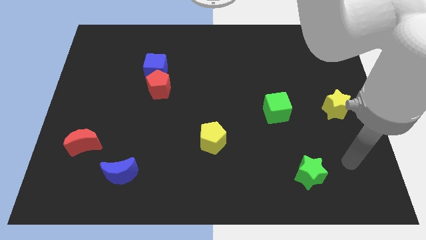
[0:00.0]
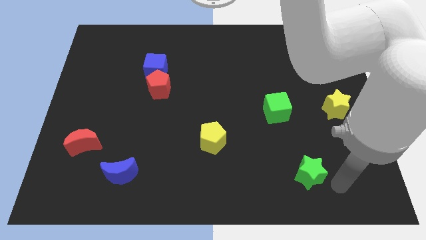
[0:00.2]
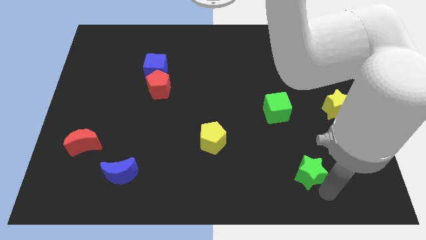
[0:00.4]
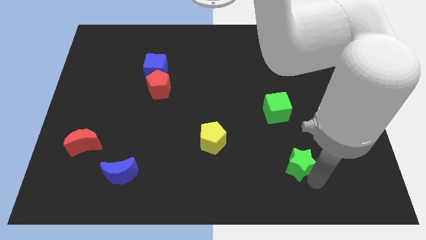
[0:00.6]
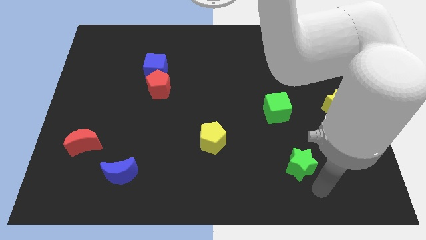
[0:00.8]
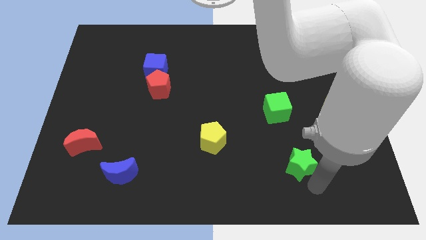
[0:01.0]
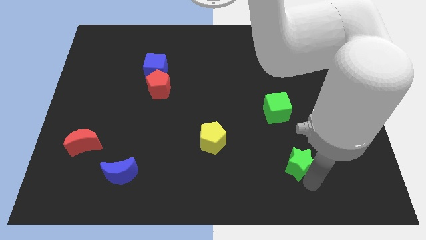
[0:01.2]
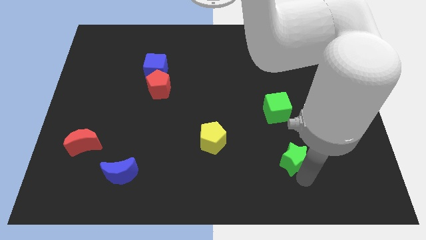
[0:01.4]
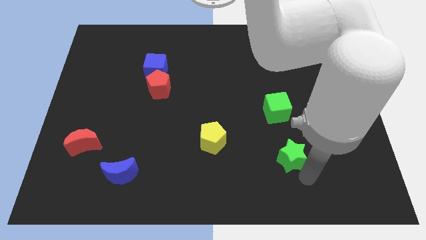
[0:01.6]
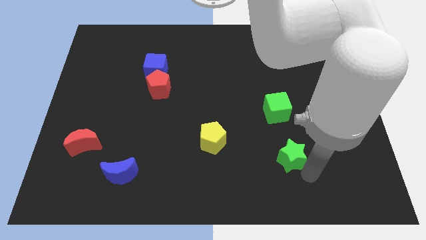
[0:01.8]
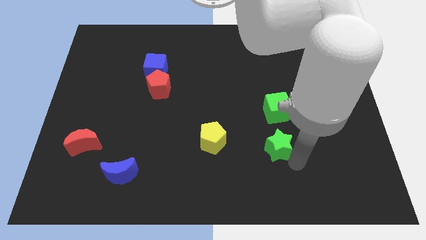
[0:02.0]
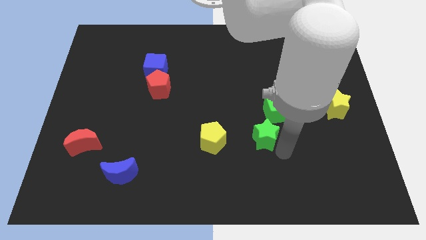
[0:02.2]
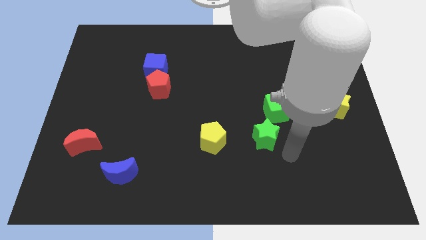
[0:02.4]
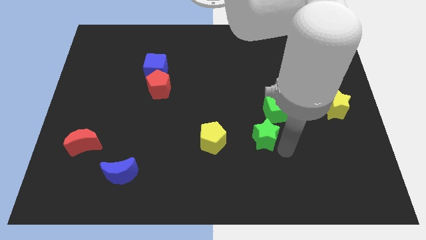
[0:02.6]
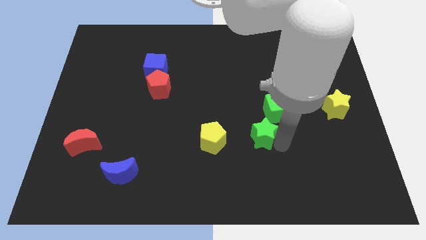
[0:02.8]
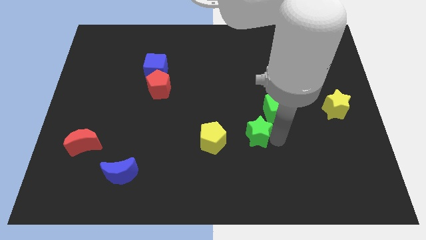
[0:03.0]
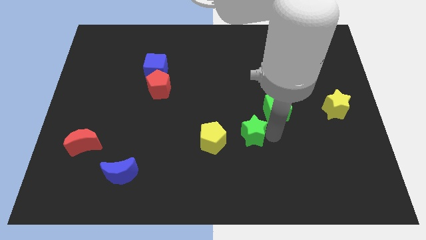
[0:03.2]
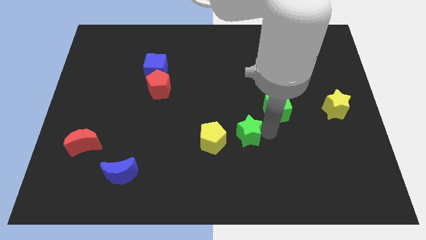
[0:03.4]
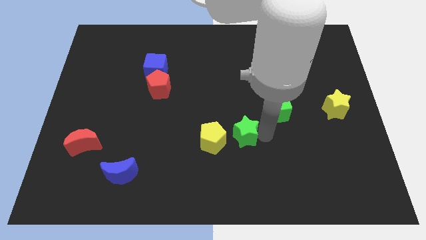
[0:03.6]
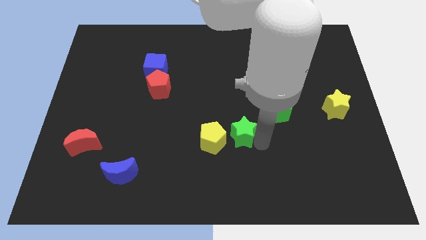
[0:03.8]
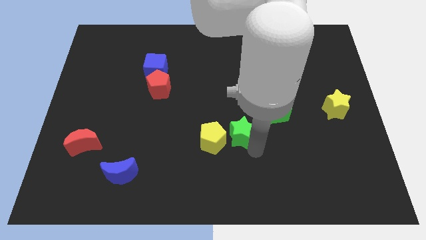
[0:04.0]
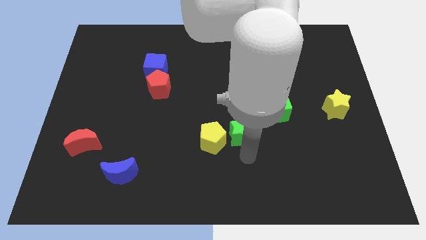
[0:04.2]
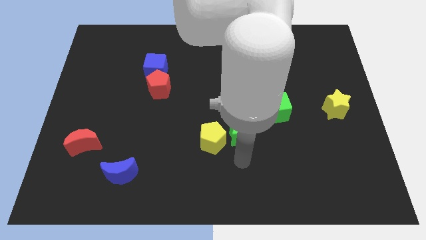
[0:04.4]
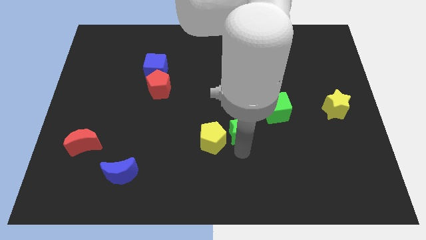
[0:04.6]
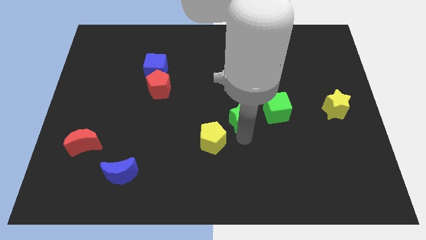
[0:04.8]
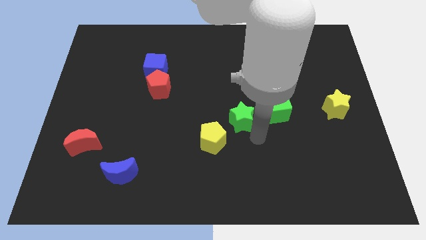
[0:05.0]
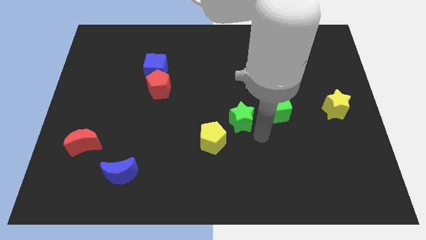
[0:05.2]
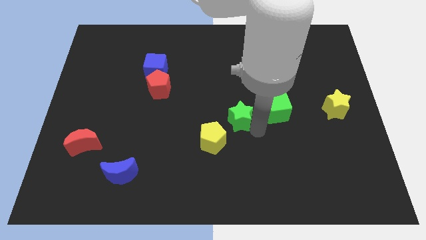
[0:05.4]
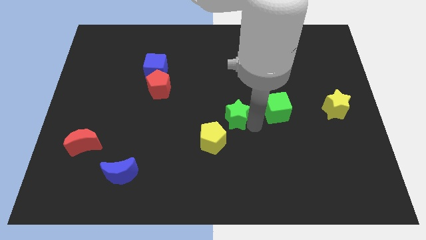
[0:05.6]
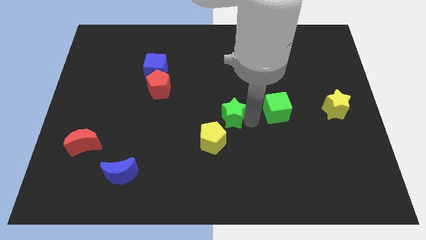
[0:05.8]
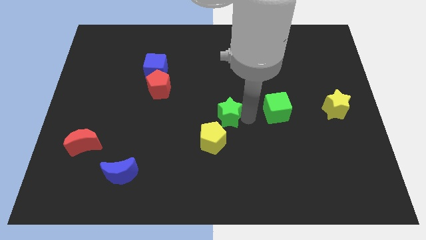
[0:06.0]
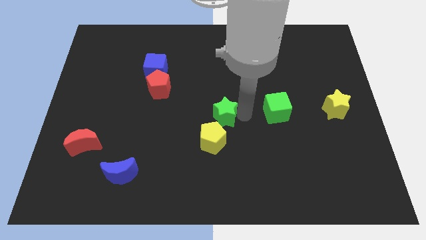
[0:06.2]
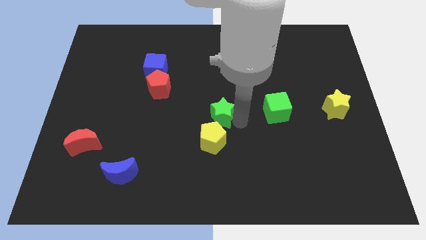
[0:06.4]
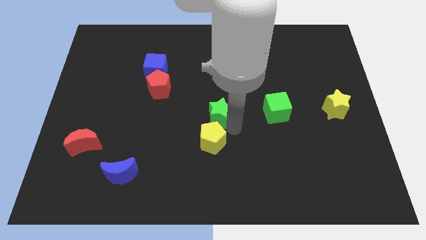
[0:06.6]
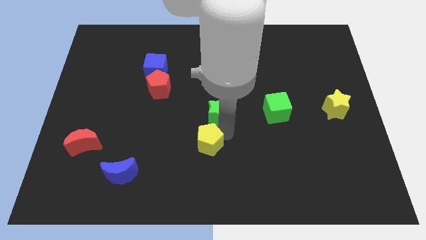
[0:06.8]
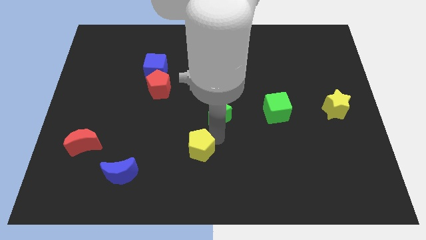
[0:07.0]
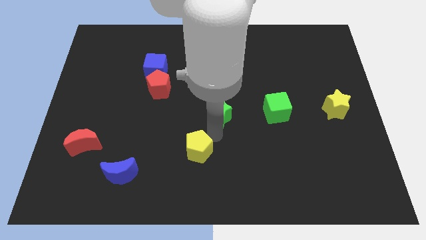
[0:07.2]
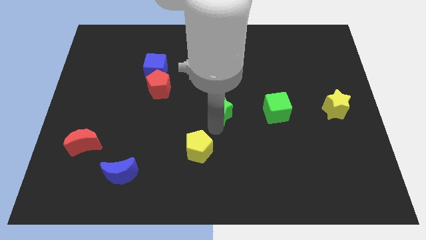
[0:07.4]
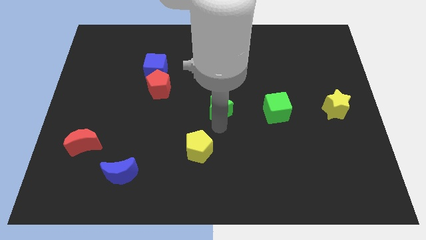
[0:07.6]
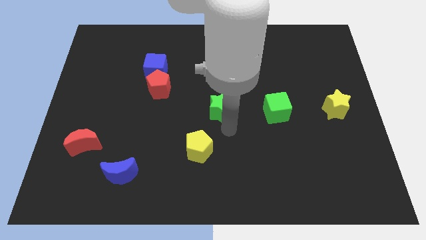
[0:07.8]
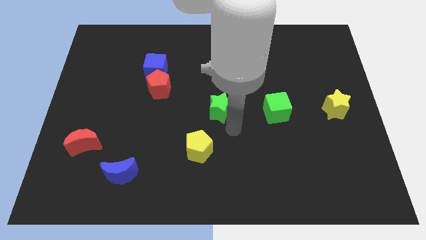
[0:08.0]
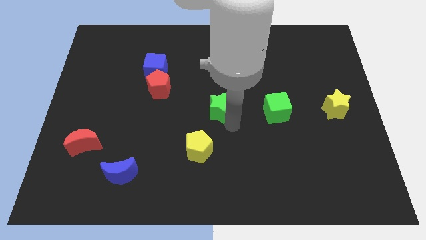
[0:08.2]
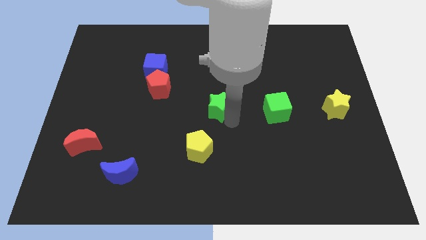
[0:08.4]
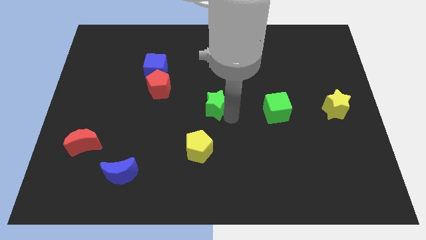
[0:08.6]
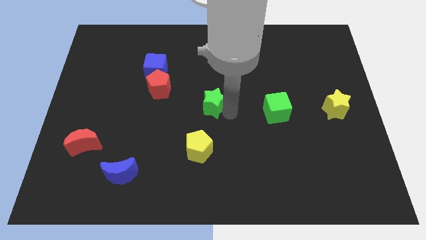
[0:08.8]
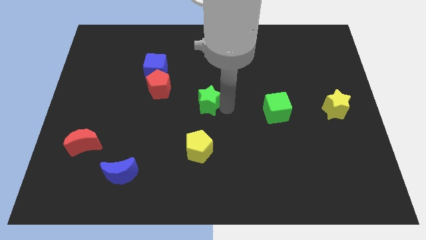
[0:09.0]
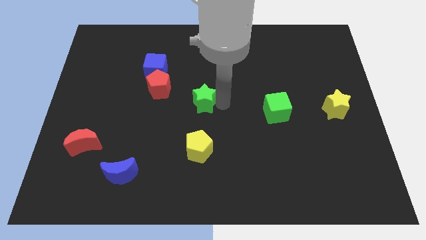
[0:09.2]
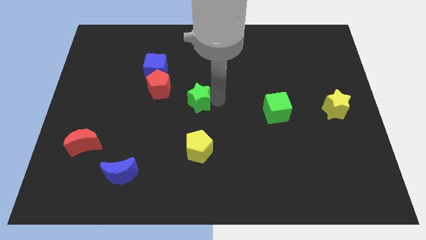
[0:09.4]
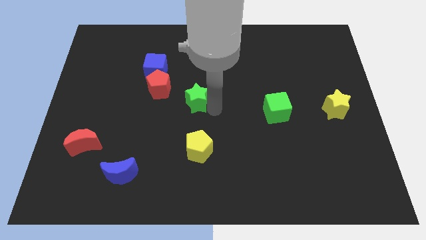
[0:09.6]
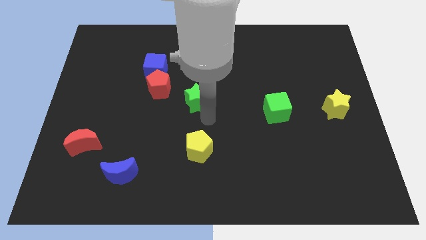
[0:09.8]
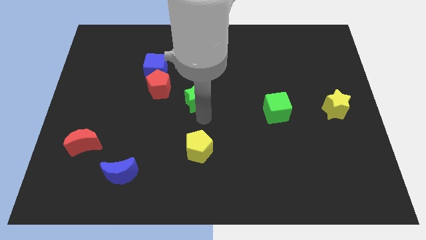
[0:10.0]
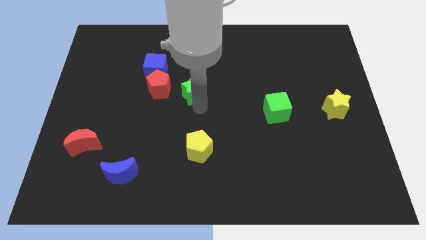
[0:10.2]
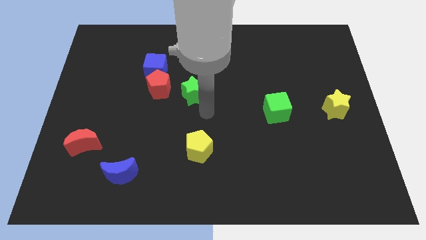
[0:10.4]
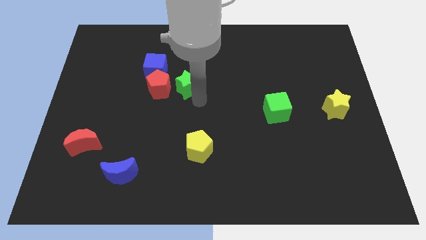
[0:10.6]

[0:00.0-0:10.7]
move the green star to the top right side of the red pentagon

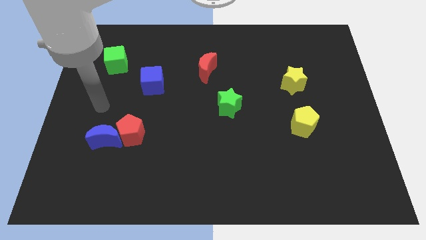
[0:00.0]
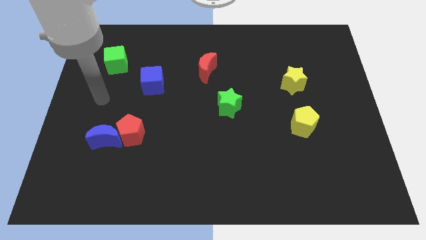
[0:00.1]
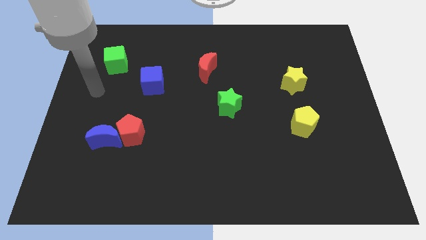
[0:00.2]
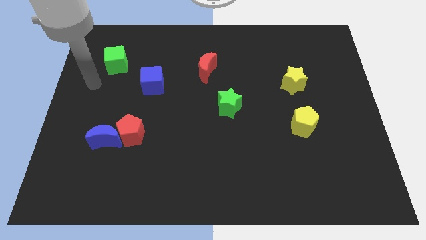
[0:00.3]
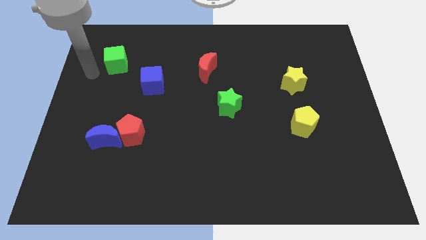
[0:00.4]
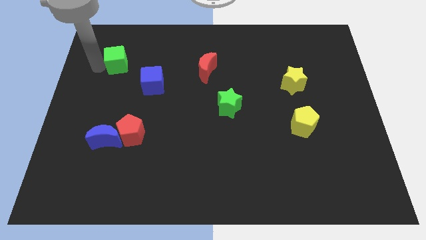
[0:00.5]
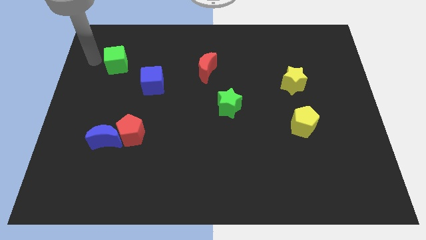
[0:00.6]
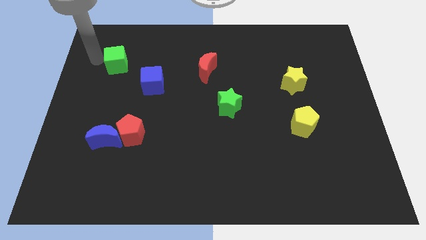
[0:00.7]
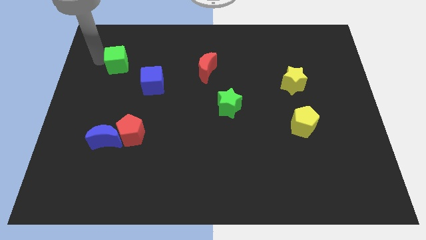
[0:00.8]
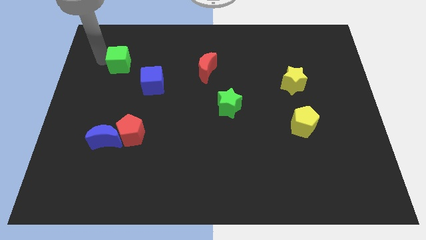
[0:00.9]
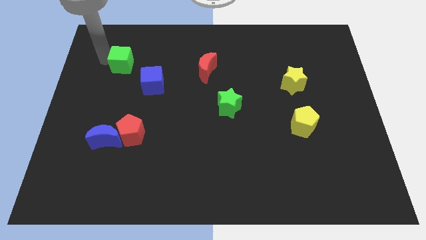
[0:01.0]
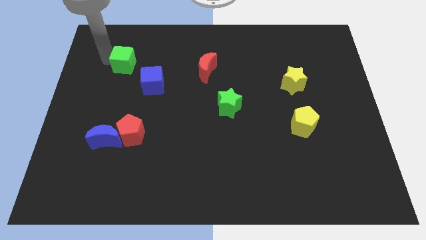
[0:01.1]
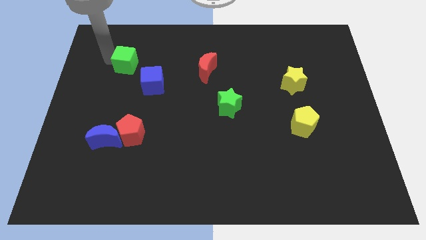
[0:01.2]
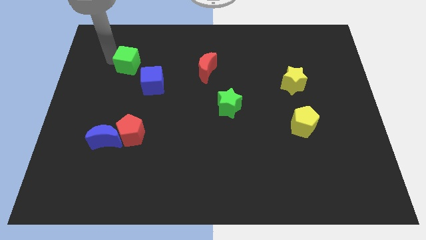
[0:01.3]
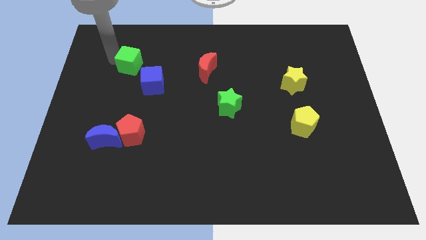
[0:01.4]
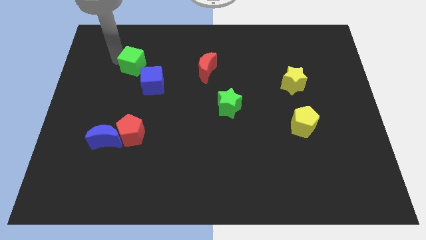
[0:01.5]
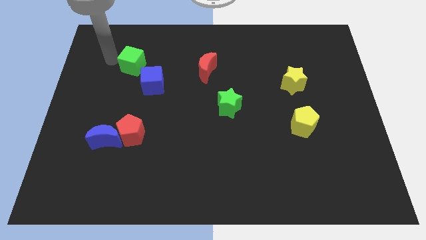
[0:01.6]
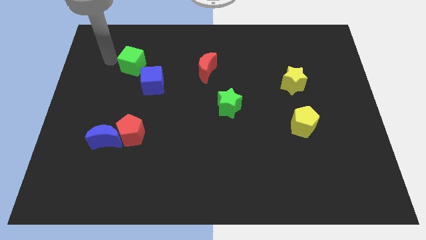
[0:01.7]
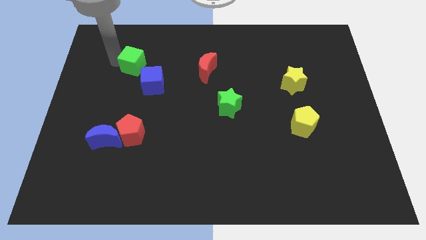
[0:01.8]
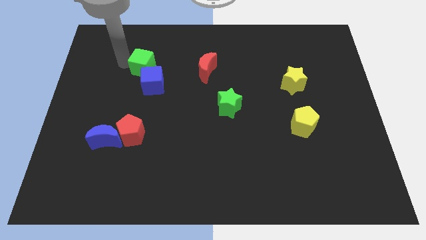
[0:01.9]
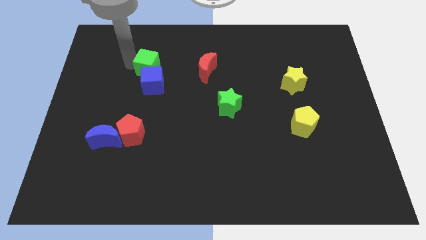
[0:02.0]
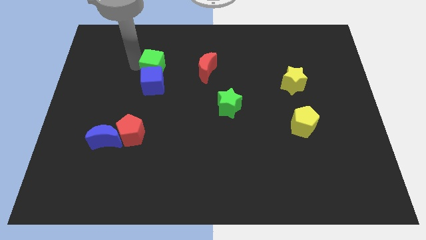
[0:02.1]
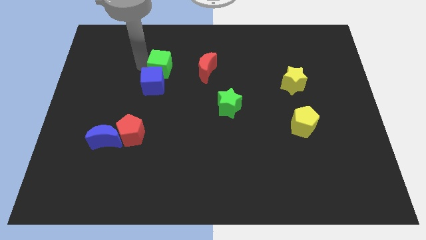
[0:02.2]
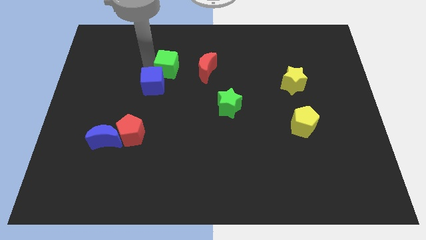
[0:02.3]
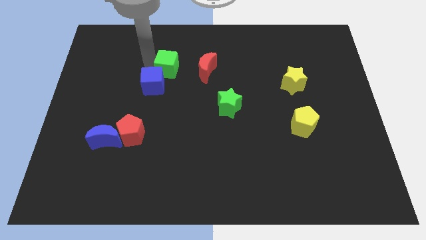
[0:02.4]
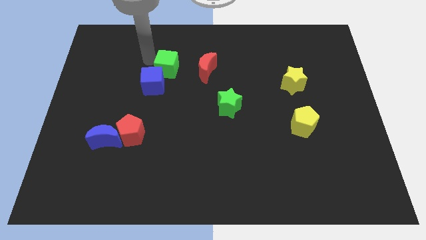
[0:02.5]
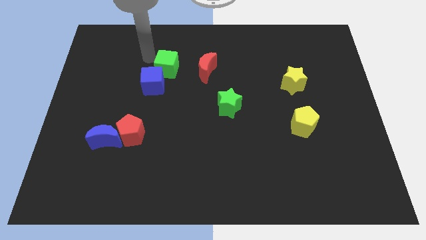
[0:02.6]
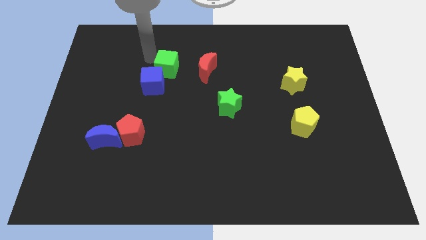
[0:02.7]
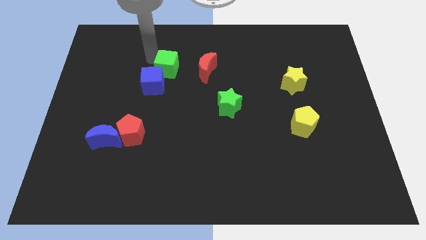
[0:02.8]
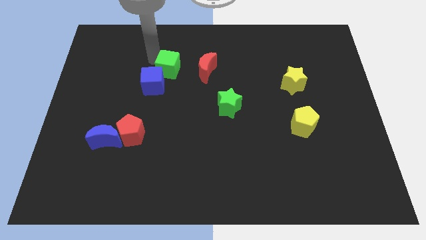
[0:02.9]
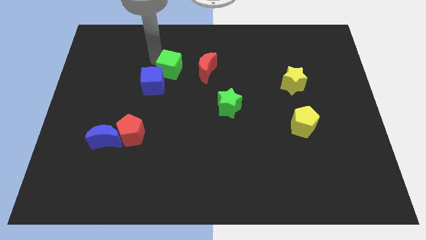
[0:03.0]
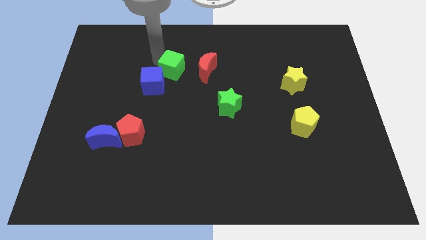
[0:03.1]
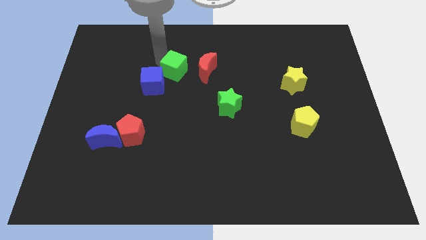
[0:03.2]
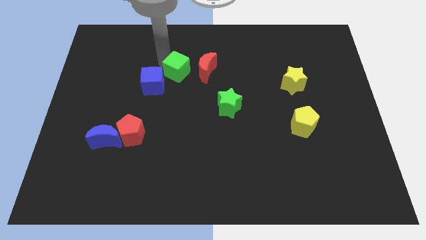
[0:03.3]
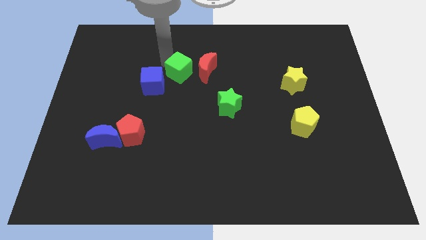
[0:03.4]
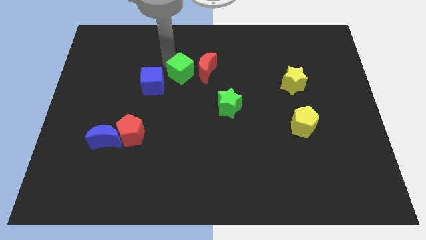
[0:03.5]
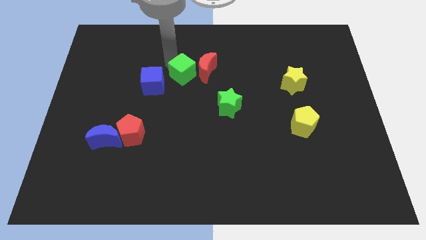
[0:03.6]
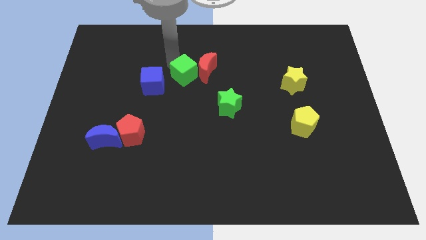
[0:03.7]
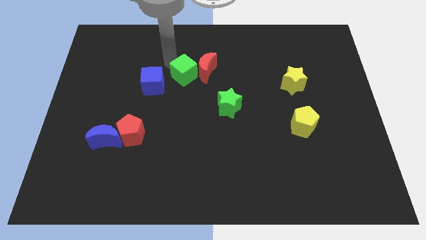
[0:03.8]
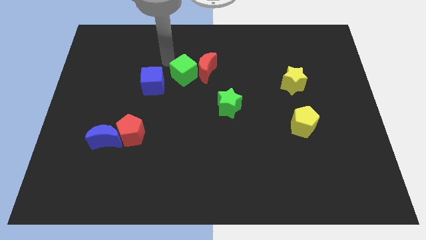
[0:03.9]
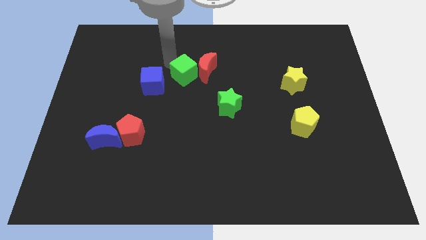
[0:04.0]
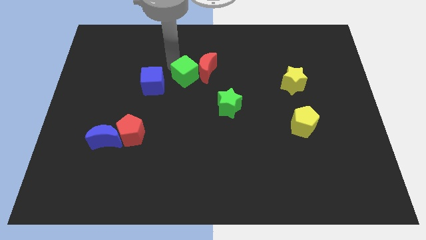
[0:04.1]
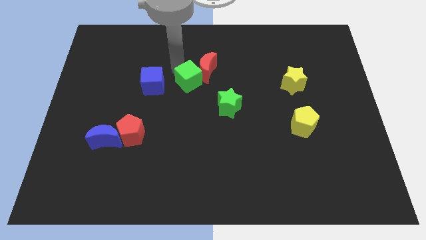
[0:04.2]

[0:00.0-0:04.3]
move the green cube diagonally up and to the left of the green star
